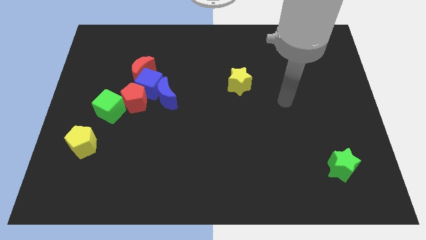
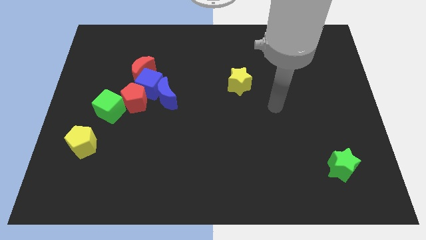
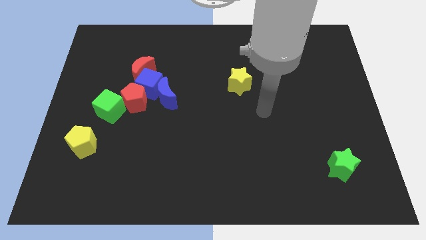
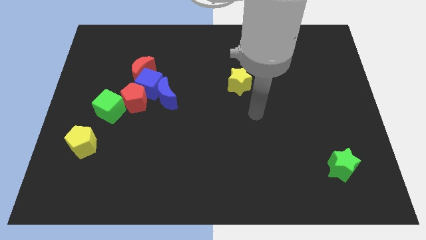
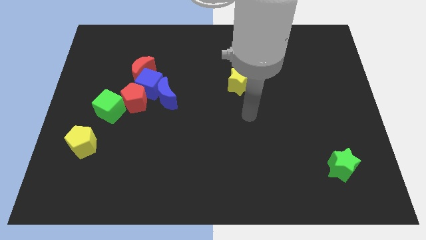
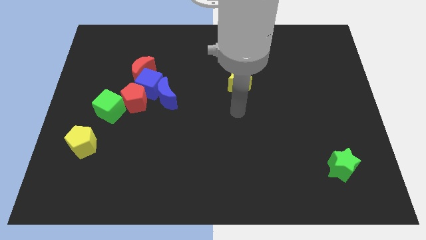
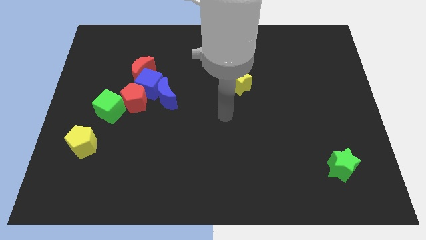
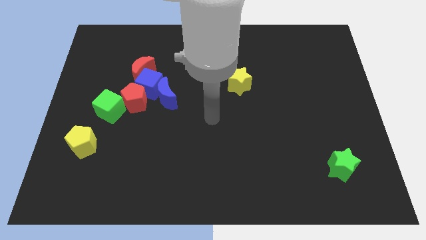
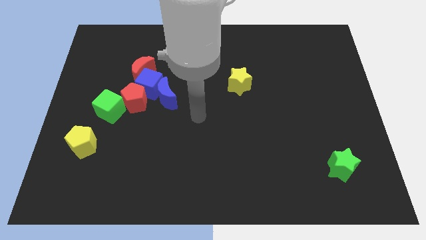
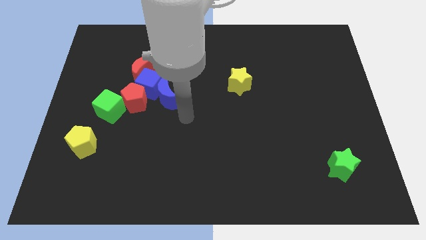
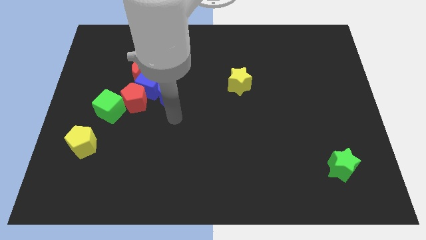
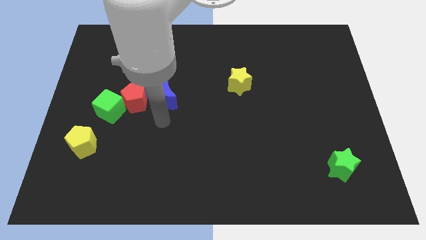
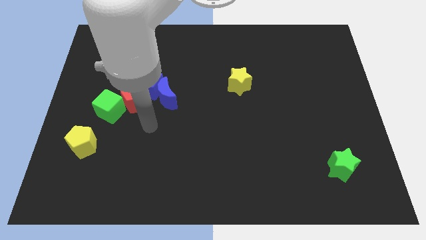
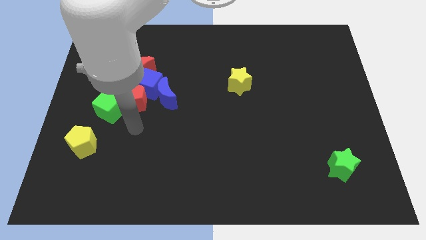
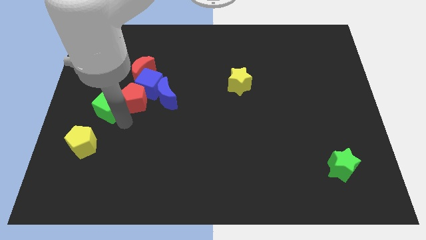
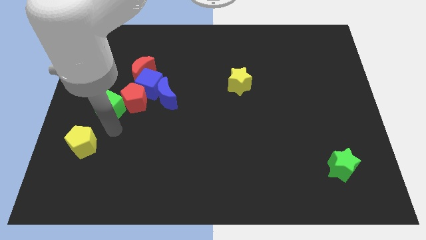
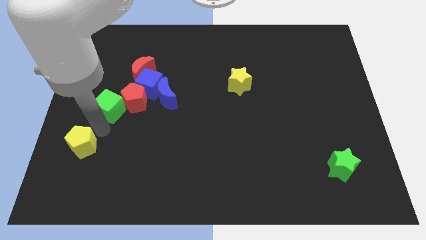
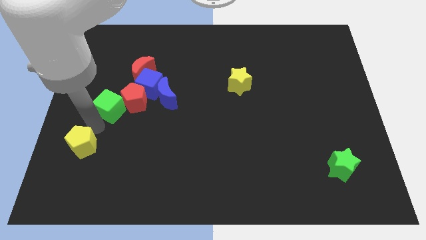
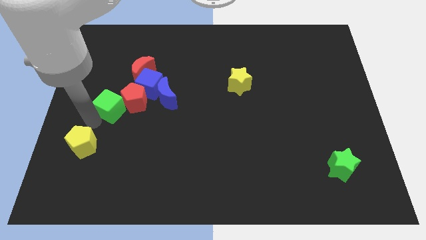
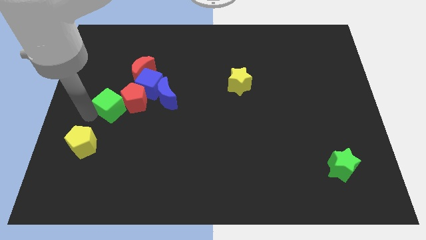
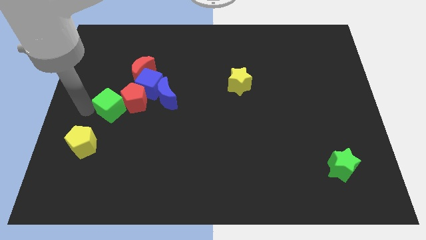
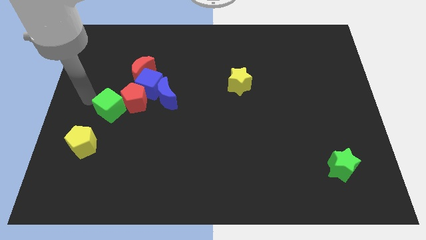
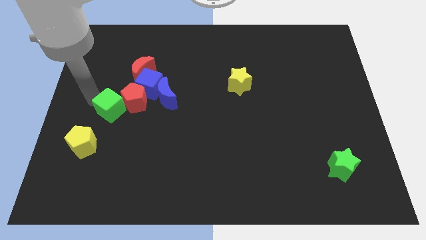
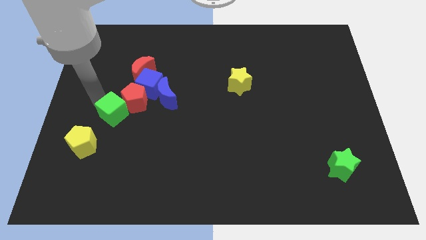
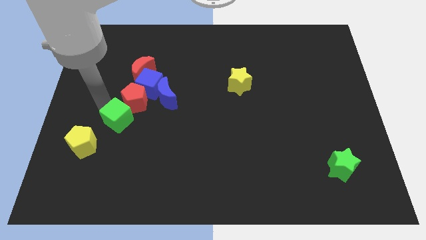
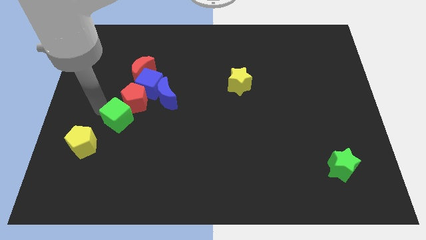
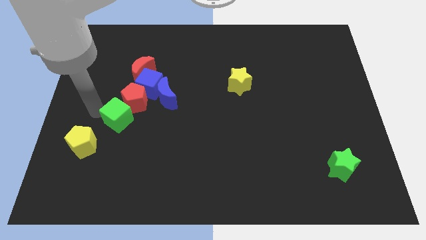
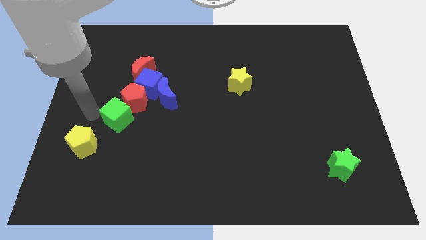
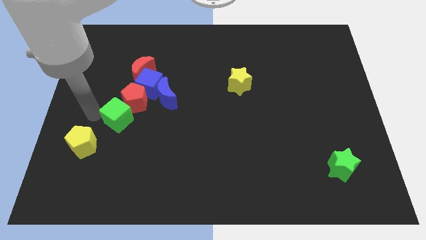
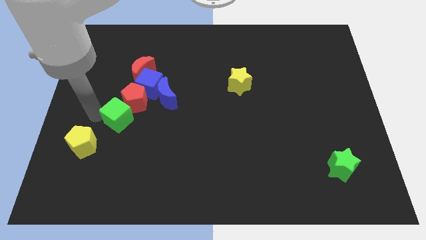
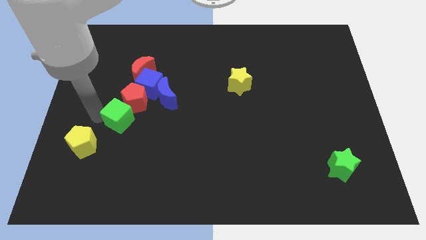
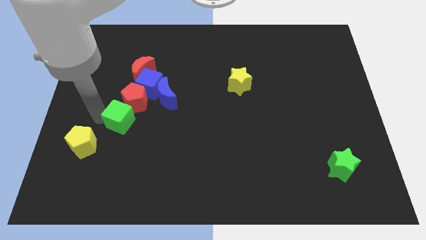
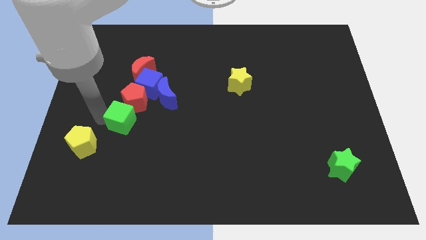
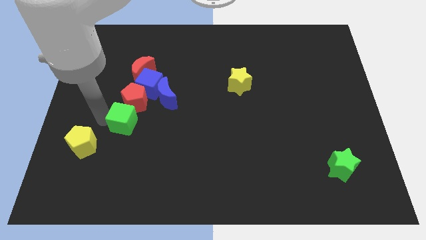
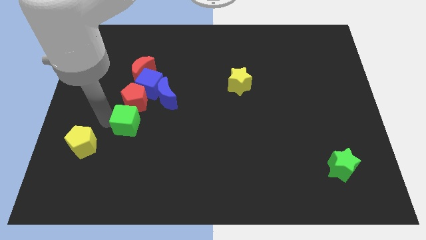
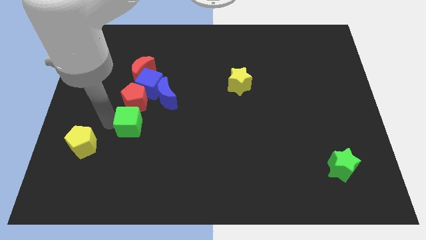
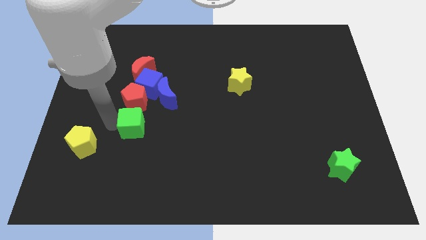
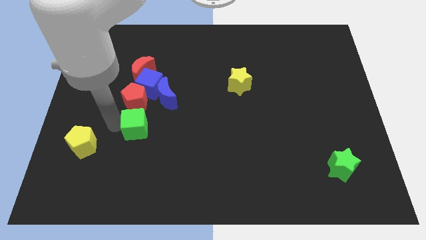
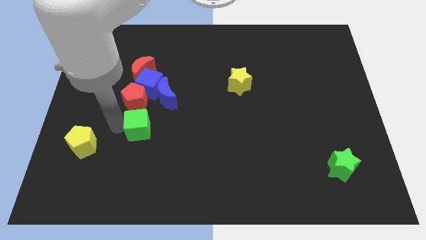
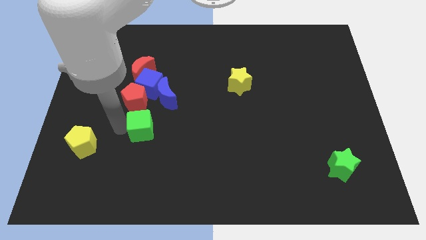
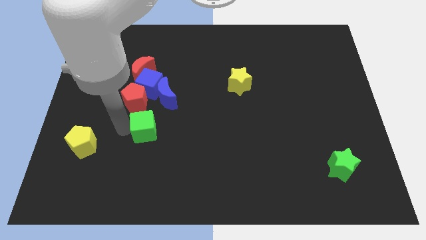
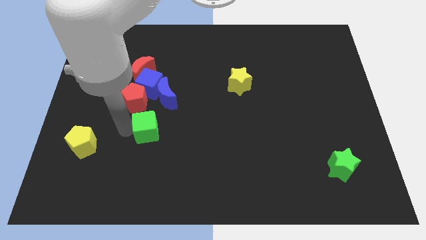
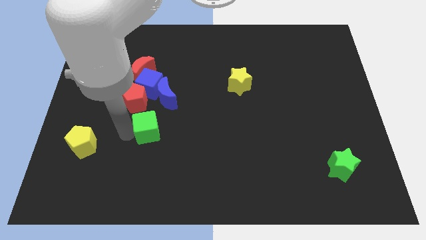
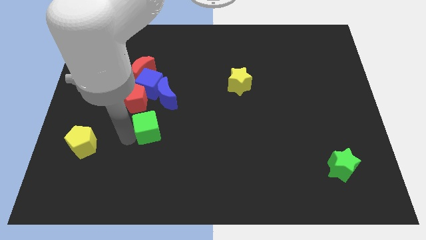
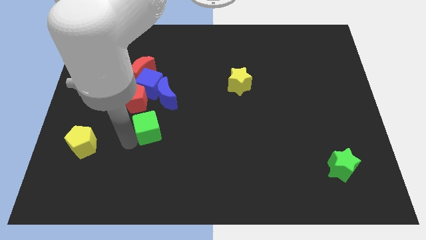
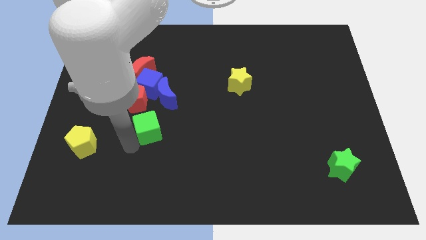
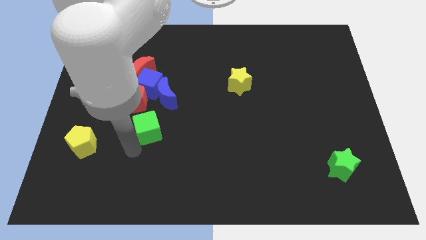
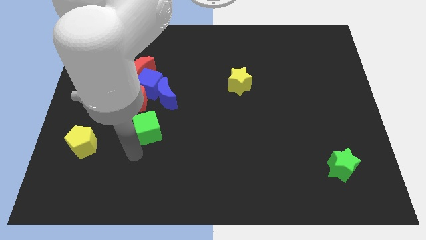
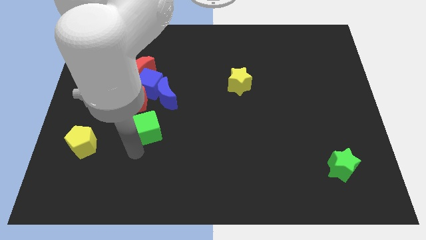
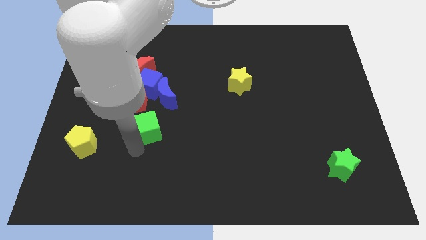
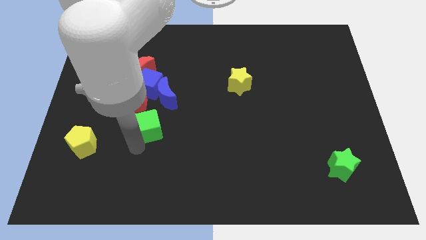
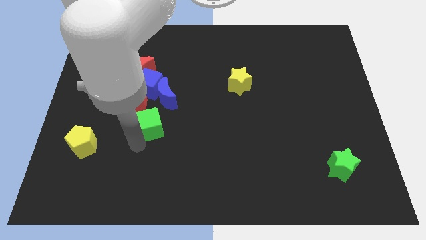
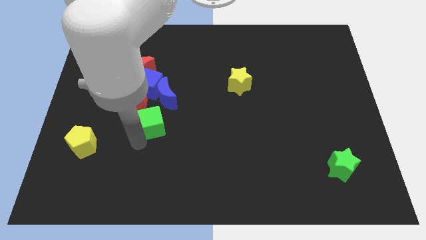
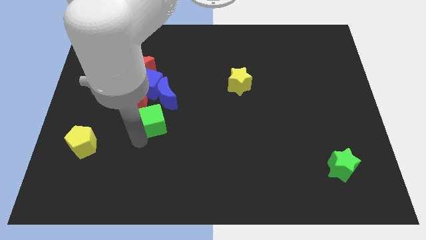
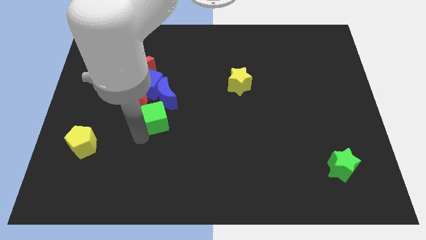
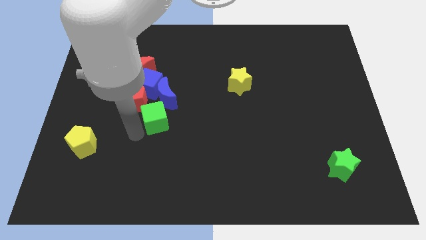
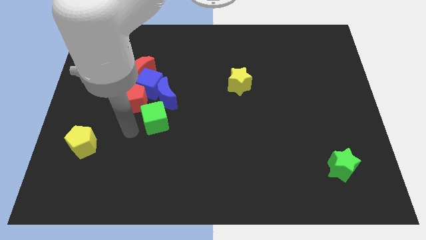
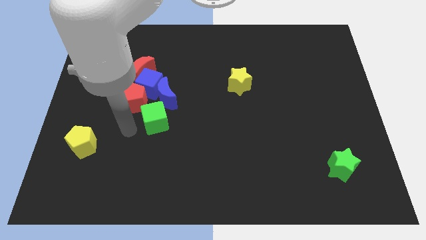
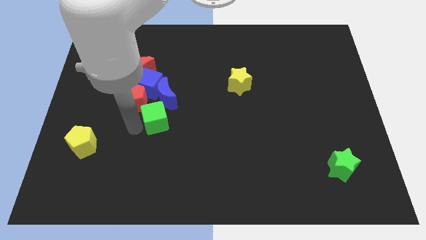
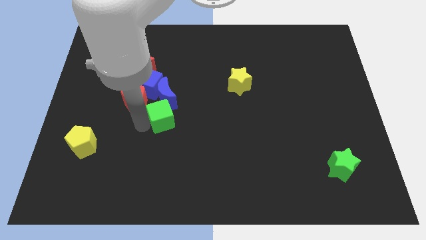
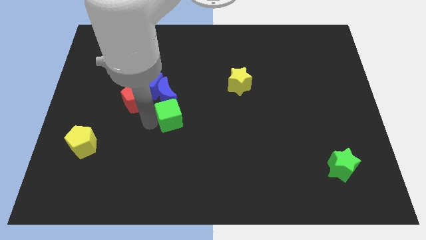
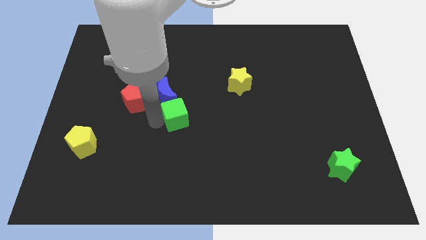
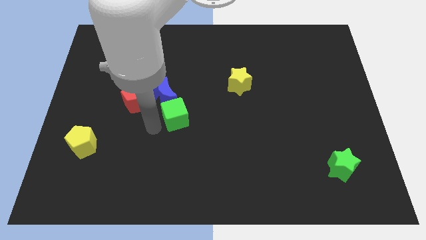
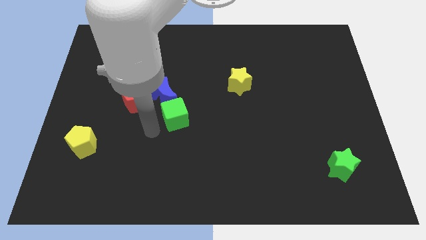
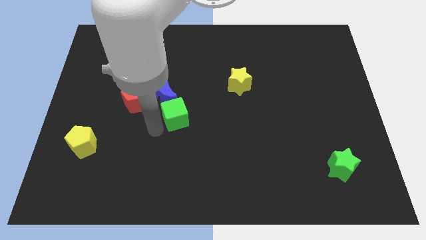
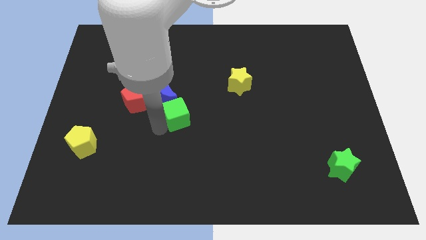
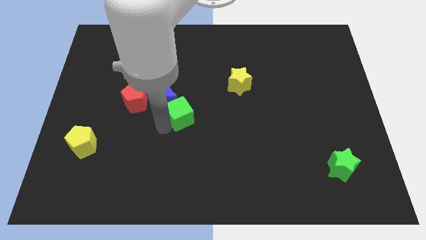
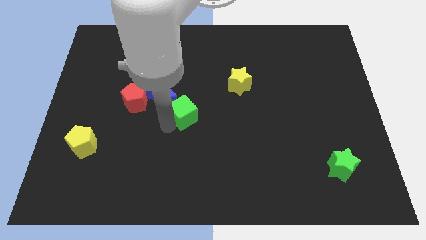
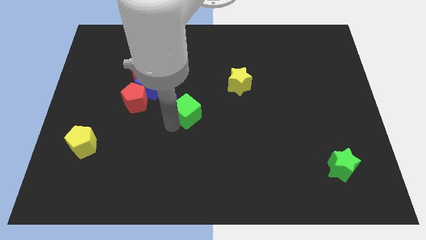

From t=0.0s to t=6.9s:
move the green cube to the right of the blue moon
